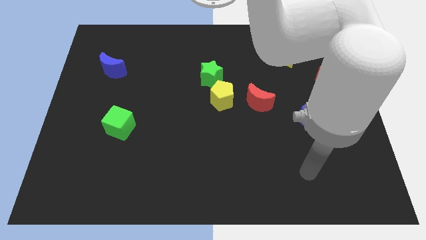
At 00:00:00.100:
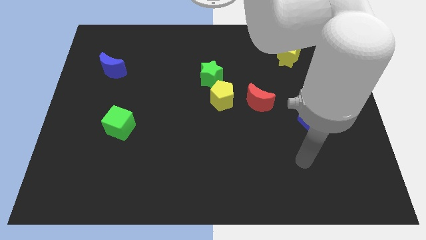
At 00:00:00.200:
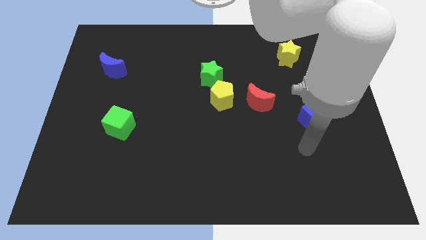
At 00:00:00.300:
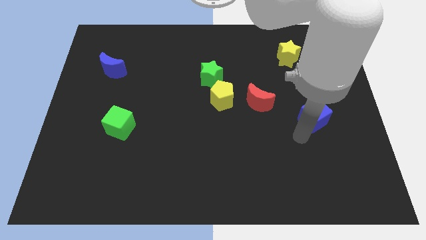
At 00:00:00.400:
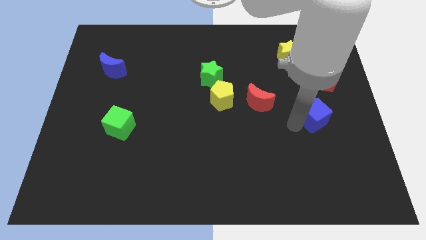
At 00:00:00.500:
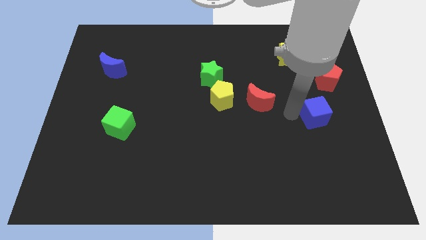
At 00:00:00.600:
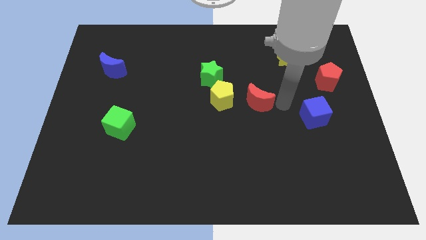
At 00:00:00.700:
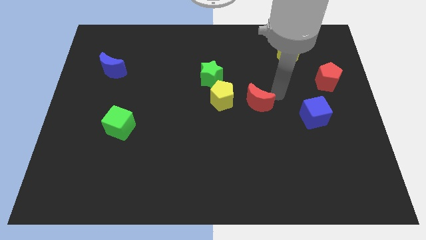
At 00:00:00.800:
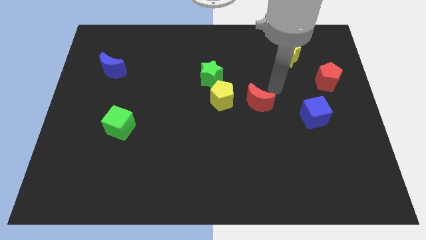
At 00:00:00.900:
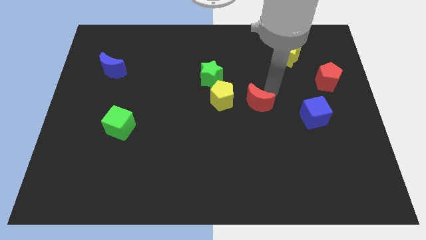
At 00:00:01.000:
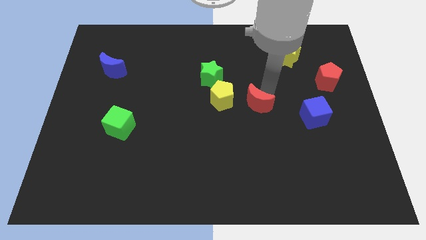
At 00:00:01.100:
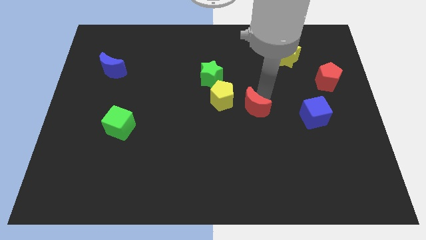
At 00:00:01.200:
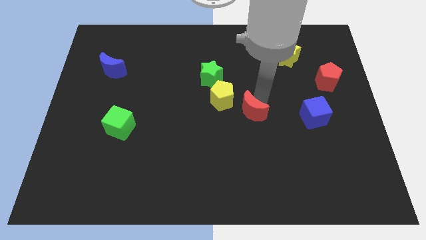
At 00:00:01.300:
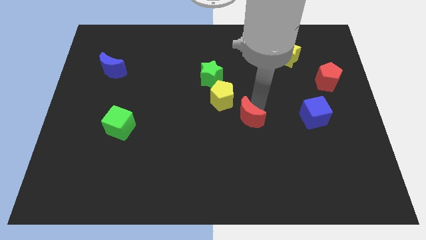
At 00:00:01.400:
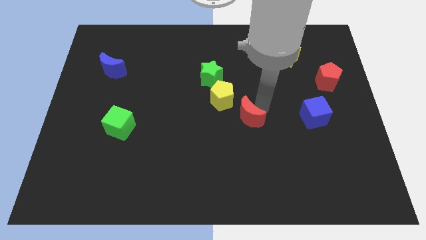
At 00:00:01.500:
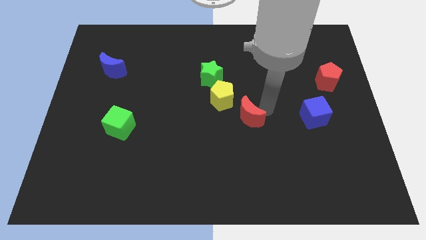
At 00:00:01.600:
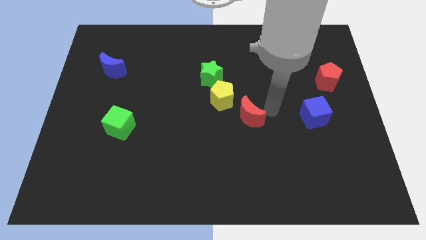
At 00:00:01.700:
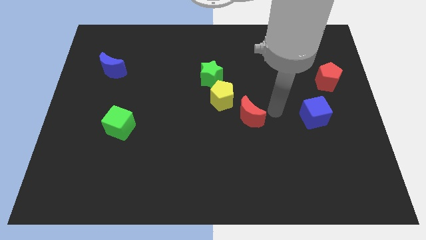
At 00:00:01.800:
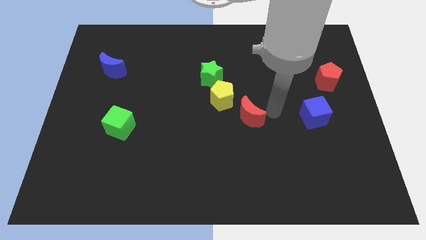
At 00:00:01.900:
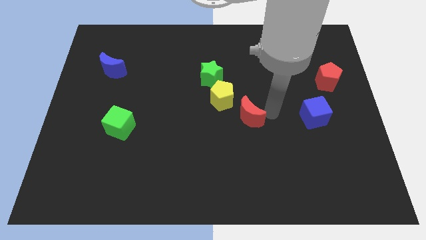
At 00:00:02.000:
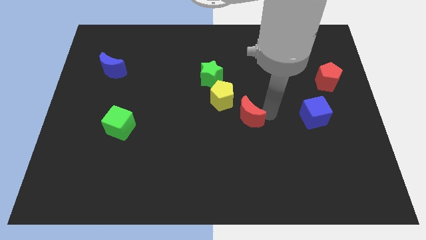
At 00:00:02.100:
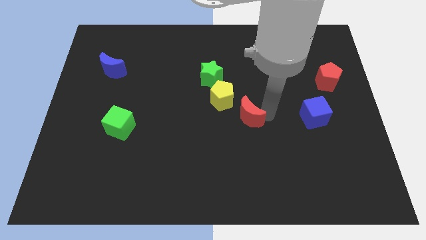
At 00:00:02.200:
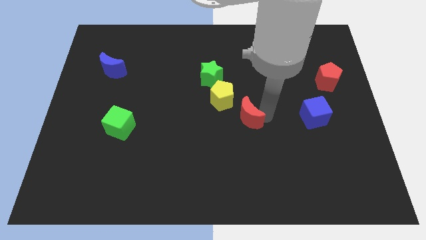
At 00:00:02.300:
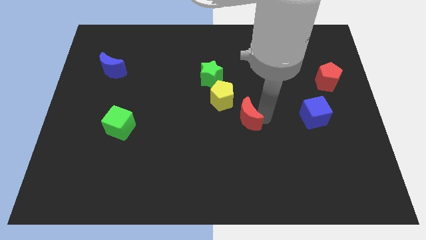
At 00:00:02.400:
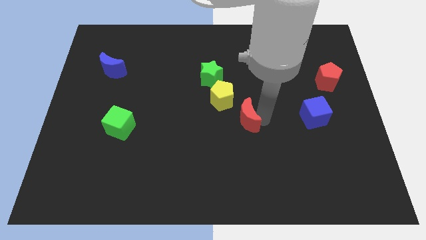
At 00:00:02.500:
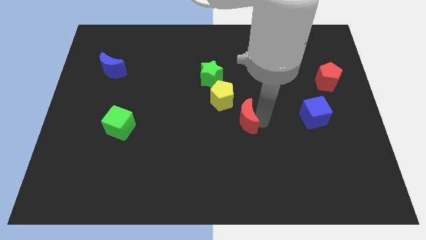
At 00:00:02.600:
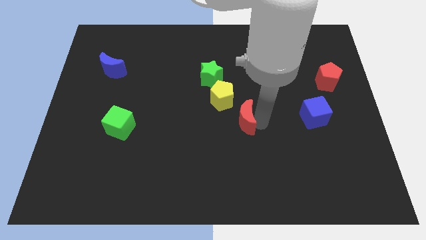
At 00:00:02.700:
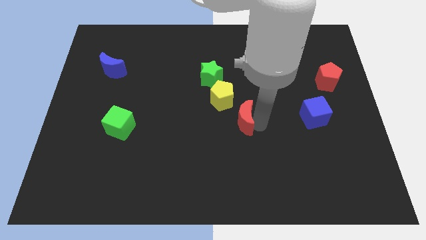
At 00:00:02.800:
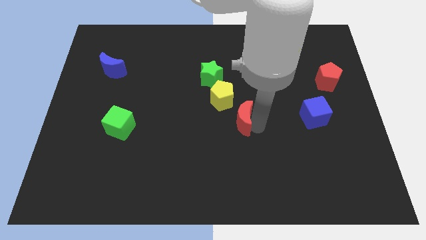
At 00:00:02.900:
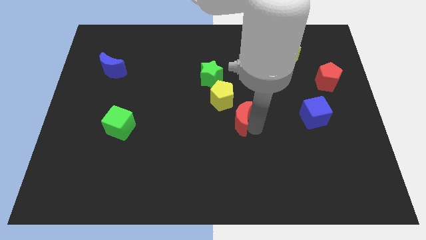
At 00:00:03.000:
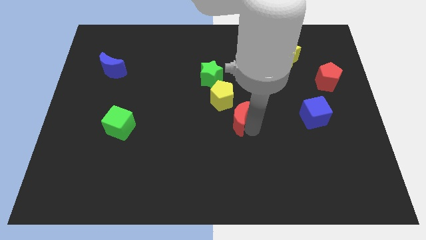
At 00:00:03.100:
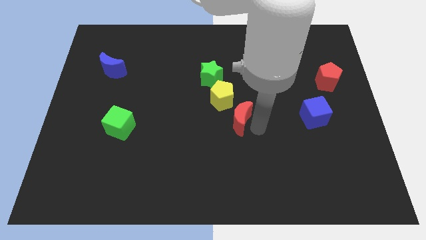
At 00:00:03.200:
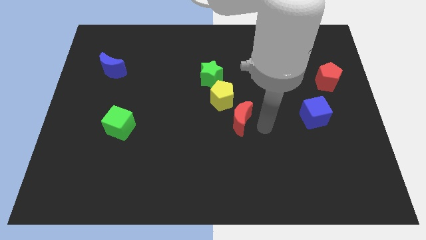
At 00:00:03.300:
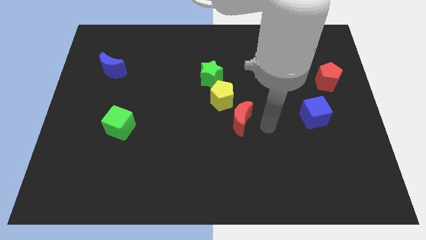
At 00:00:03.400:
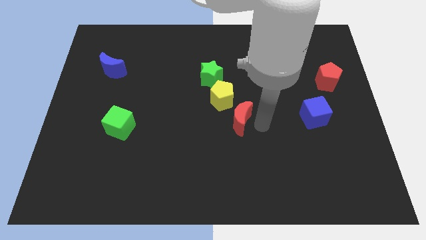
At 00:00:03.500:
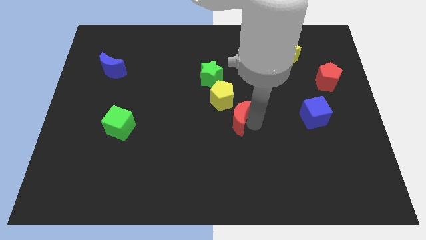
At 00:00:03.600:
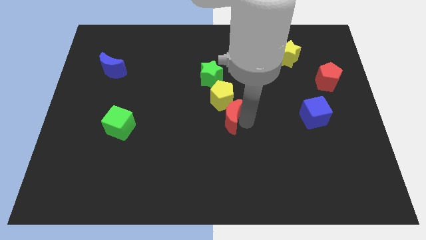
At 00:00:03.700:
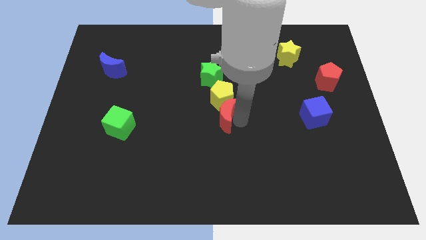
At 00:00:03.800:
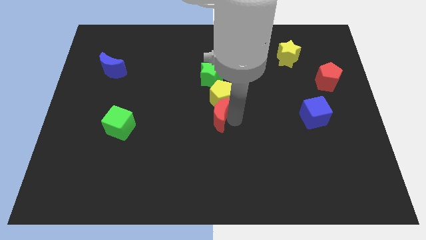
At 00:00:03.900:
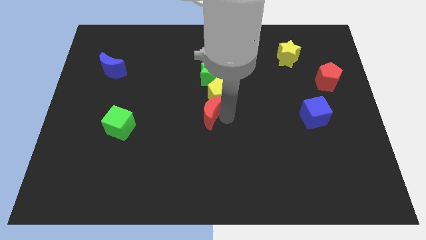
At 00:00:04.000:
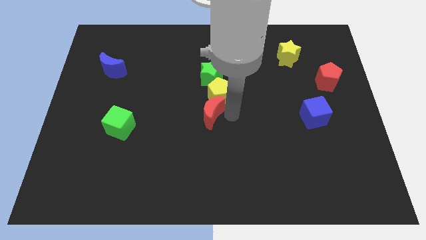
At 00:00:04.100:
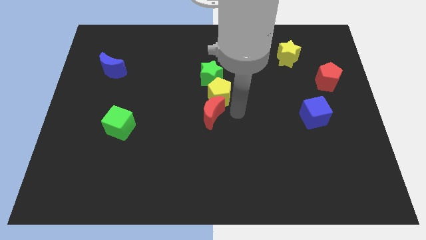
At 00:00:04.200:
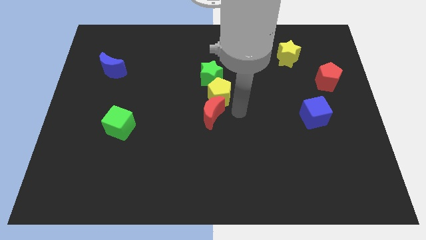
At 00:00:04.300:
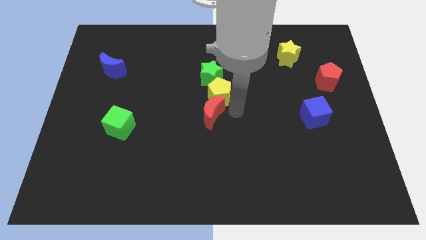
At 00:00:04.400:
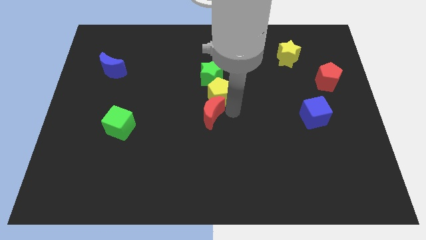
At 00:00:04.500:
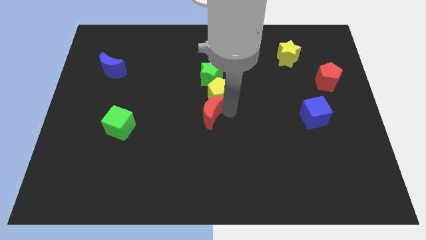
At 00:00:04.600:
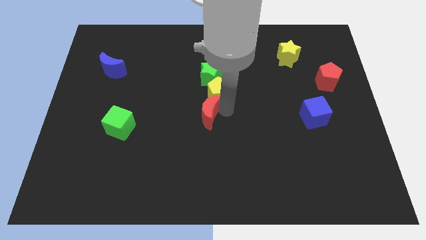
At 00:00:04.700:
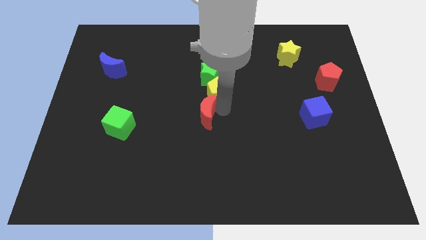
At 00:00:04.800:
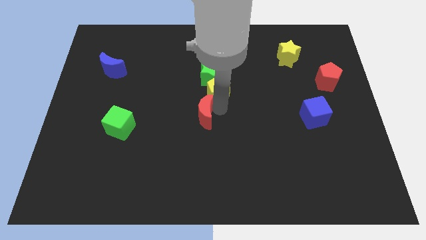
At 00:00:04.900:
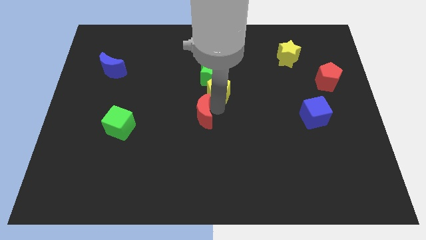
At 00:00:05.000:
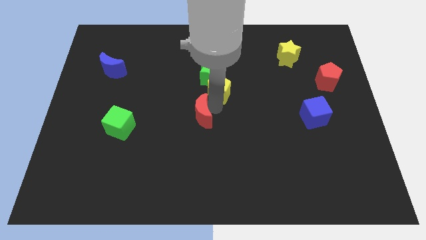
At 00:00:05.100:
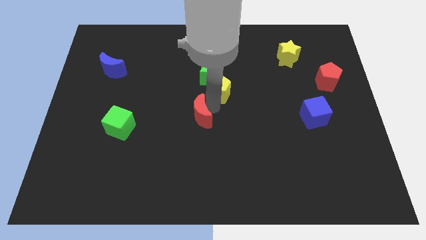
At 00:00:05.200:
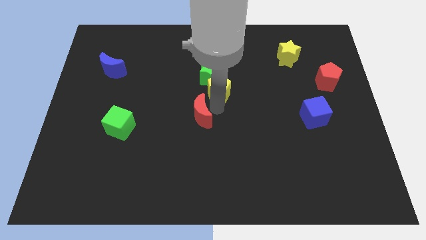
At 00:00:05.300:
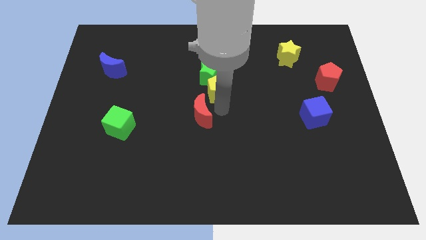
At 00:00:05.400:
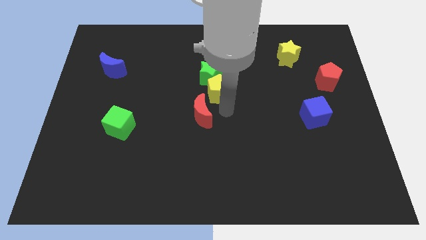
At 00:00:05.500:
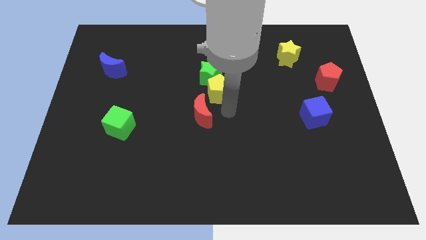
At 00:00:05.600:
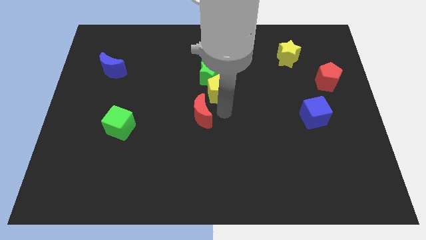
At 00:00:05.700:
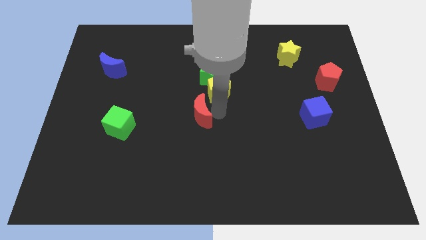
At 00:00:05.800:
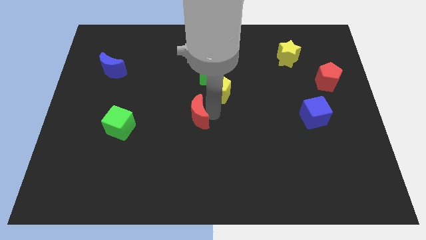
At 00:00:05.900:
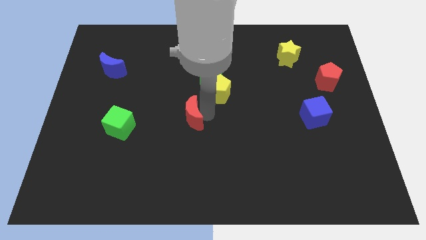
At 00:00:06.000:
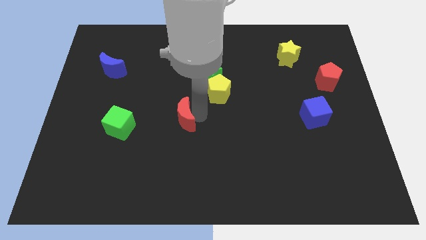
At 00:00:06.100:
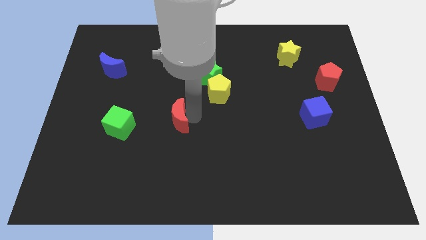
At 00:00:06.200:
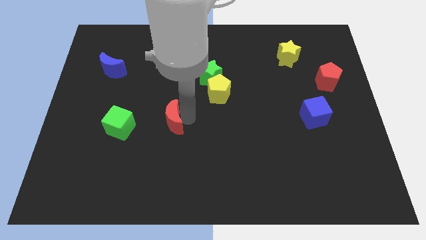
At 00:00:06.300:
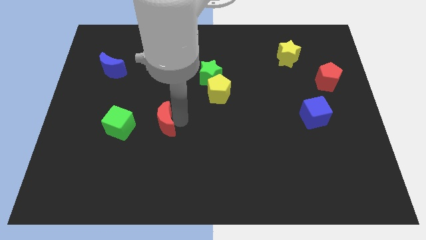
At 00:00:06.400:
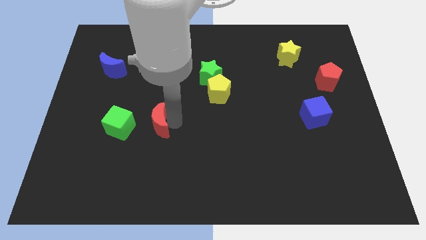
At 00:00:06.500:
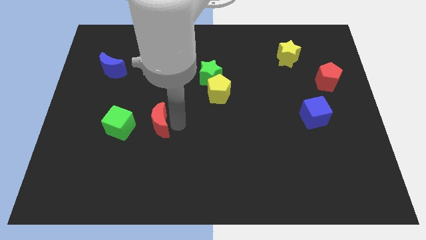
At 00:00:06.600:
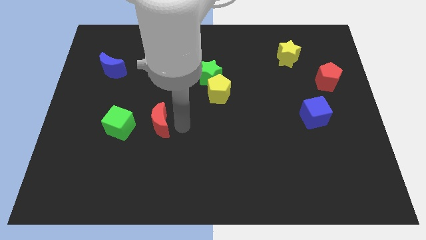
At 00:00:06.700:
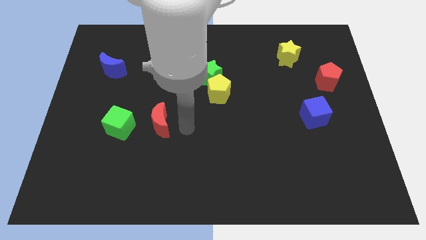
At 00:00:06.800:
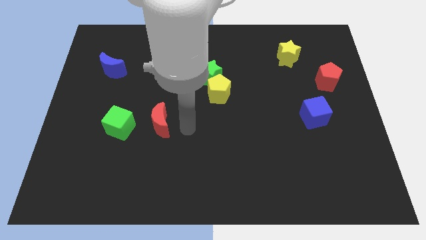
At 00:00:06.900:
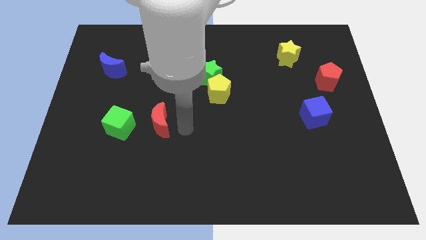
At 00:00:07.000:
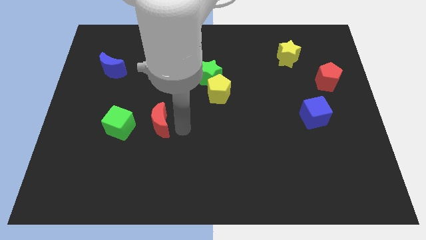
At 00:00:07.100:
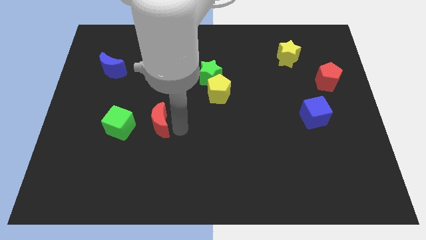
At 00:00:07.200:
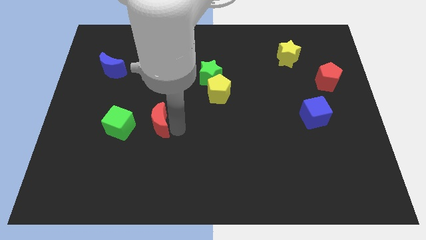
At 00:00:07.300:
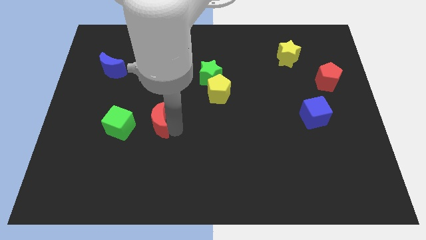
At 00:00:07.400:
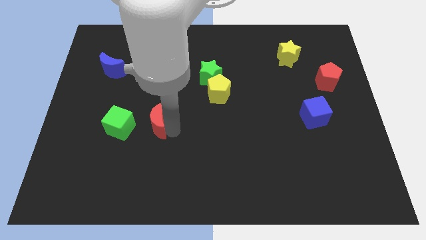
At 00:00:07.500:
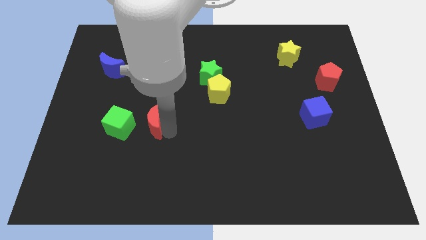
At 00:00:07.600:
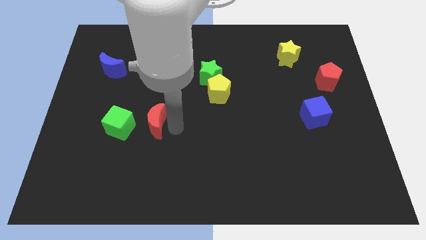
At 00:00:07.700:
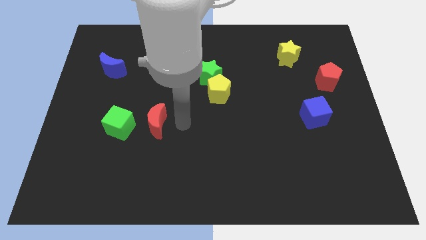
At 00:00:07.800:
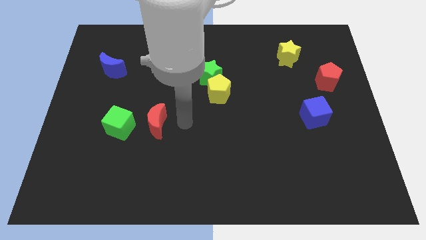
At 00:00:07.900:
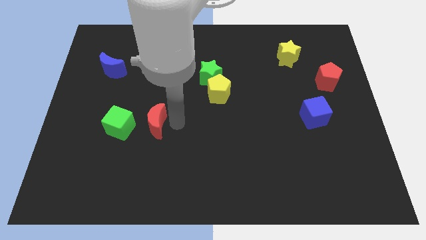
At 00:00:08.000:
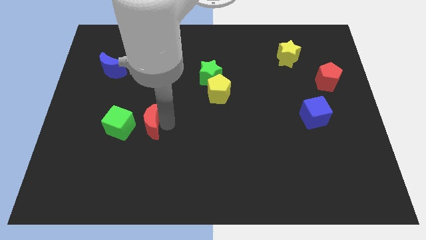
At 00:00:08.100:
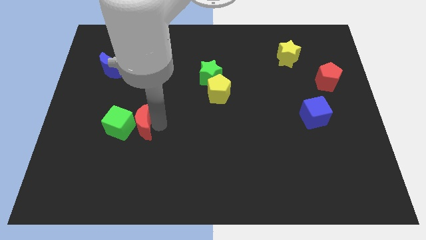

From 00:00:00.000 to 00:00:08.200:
put the red moon close to the green cube
